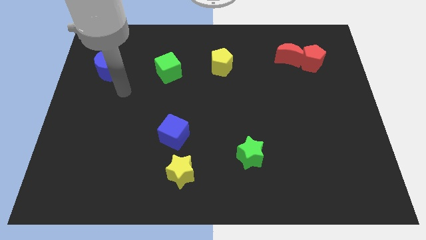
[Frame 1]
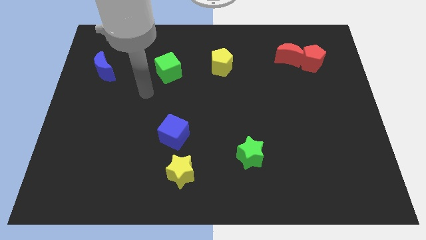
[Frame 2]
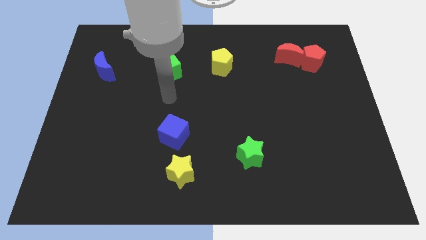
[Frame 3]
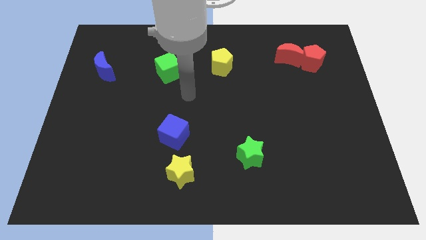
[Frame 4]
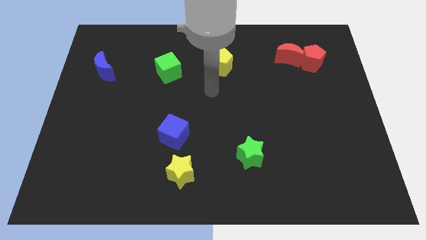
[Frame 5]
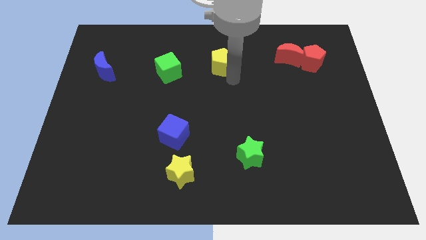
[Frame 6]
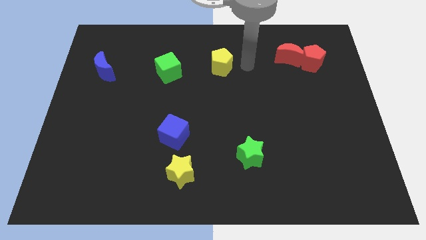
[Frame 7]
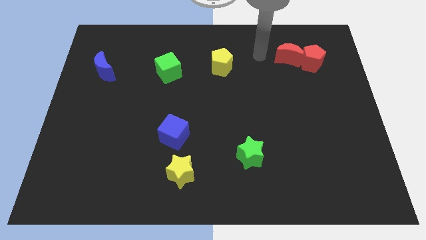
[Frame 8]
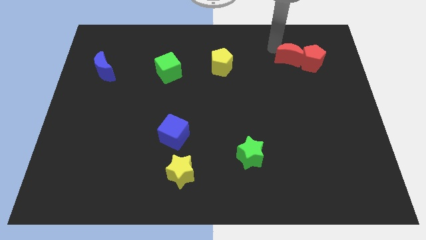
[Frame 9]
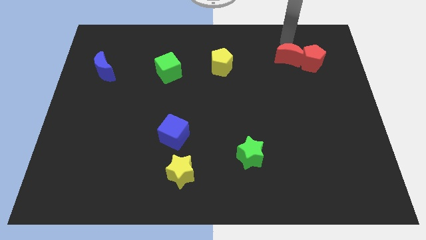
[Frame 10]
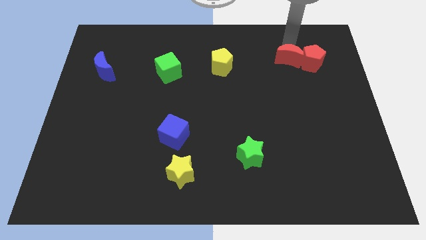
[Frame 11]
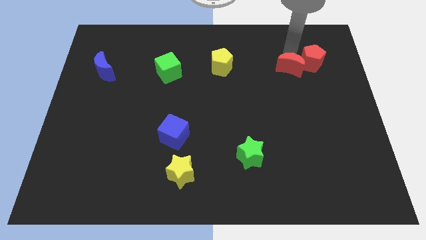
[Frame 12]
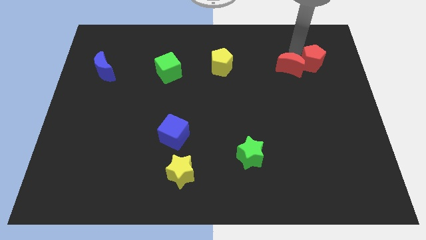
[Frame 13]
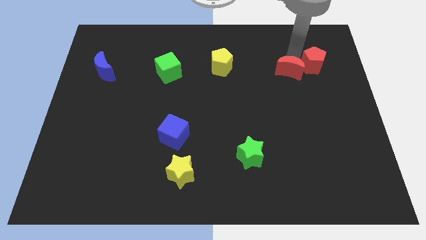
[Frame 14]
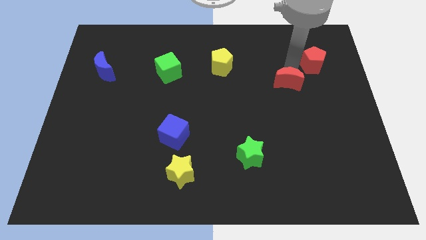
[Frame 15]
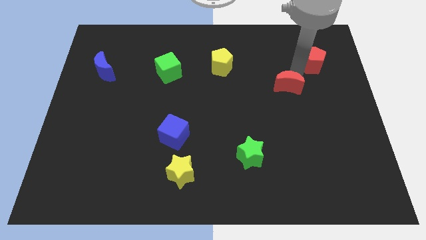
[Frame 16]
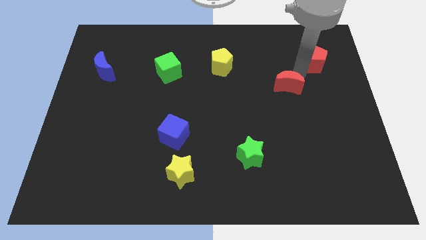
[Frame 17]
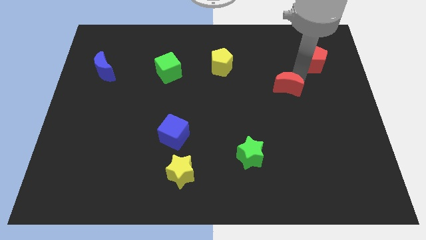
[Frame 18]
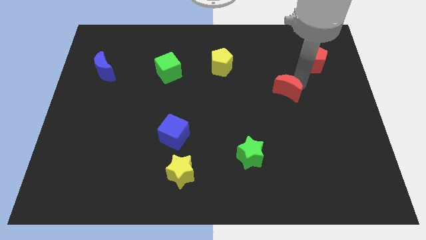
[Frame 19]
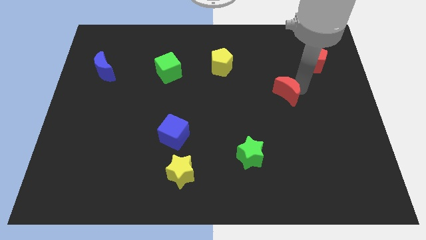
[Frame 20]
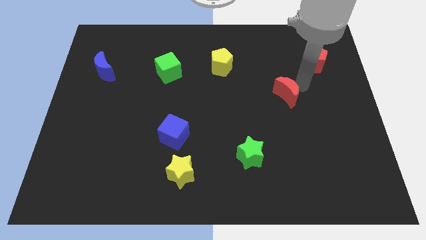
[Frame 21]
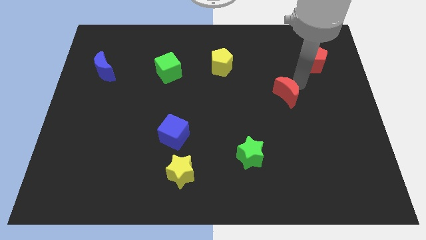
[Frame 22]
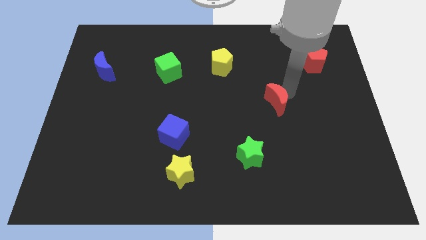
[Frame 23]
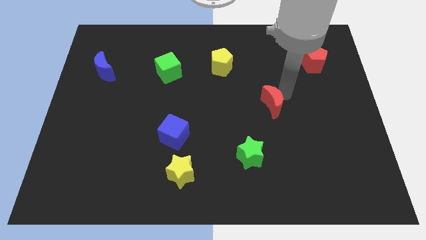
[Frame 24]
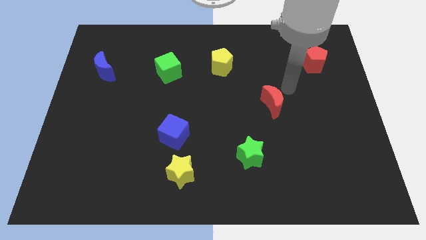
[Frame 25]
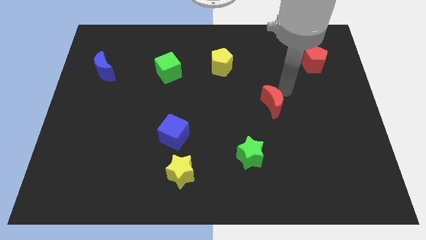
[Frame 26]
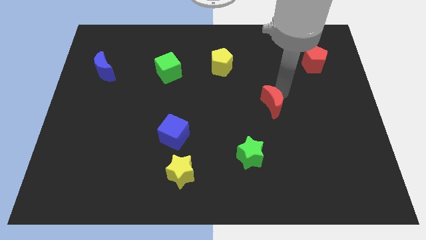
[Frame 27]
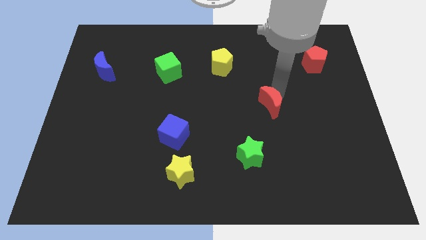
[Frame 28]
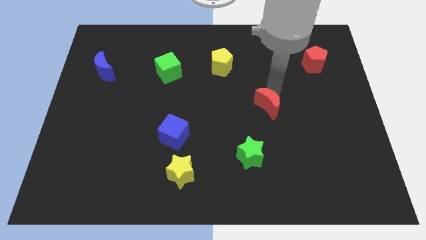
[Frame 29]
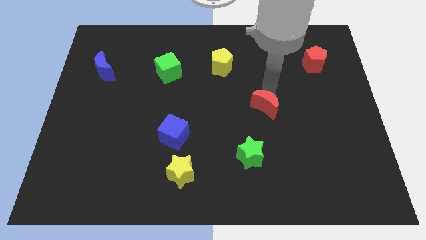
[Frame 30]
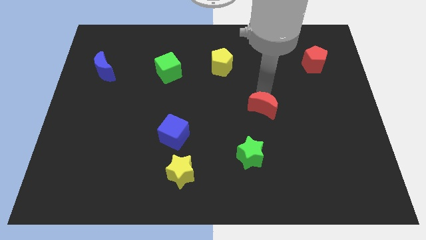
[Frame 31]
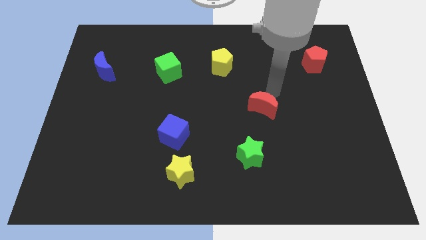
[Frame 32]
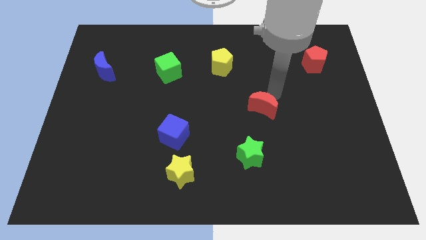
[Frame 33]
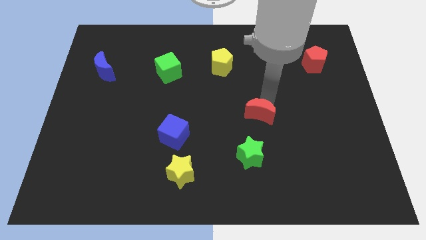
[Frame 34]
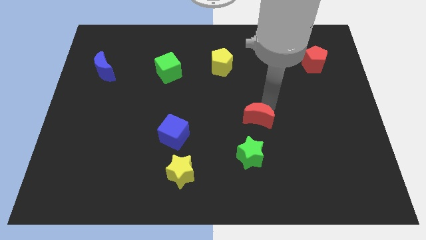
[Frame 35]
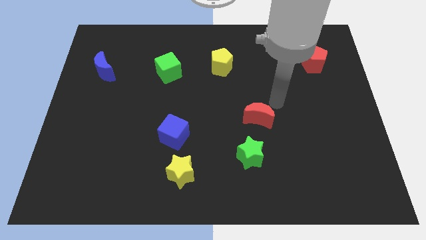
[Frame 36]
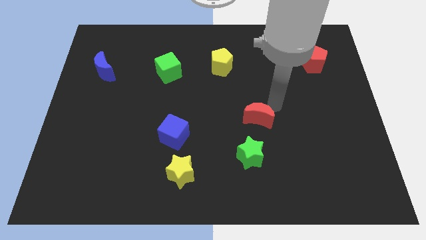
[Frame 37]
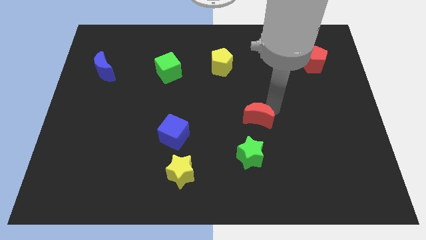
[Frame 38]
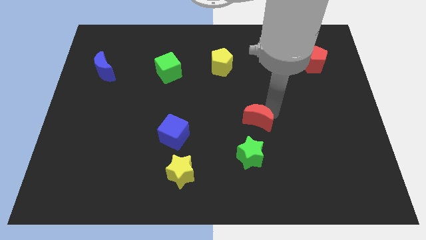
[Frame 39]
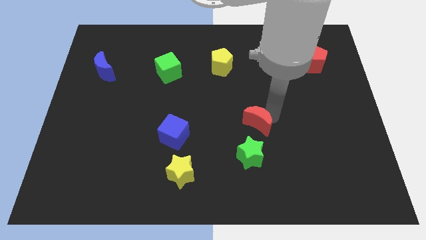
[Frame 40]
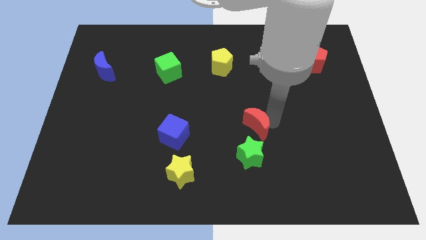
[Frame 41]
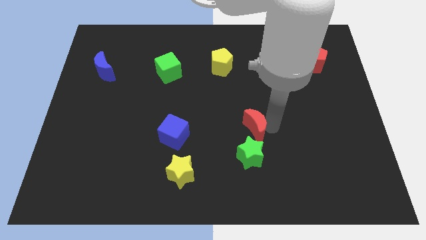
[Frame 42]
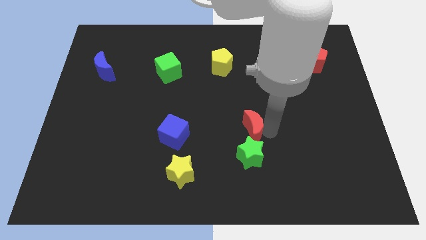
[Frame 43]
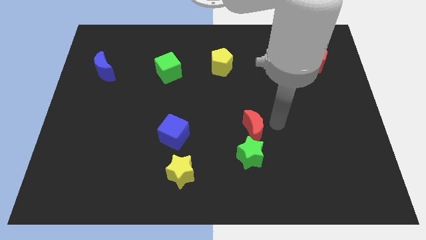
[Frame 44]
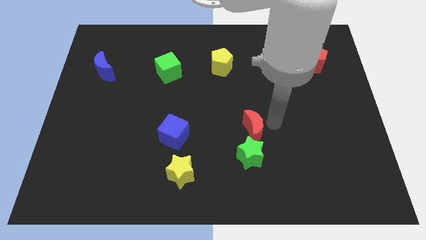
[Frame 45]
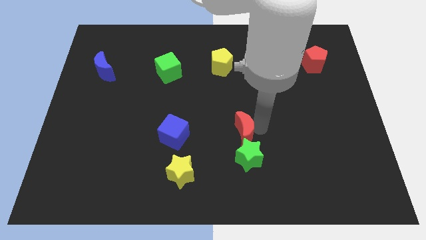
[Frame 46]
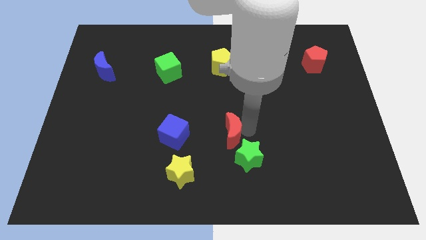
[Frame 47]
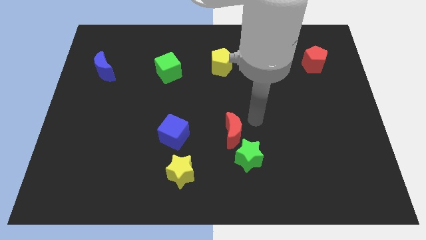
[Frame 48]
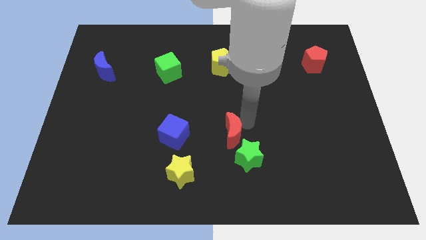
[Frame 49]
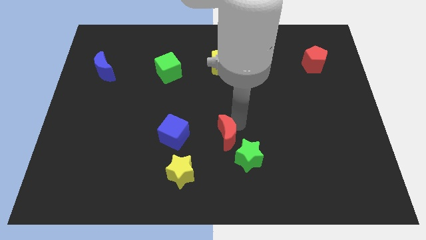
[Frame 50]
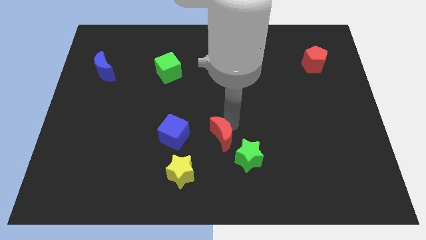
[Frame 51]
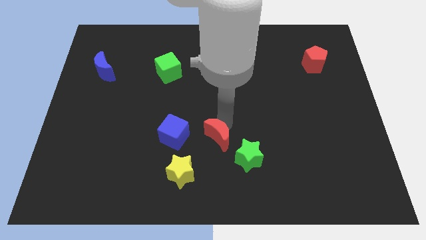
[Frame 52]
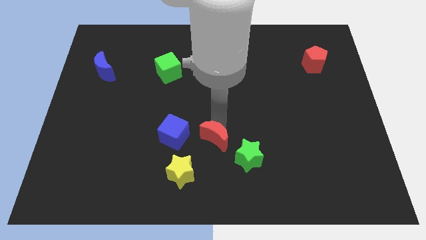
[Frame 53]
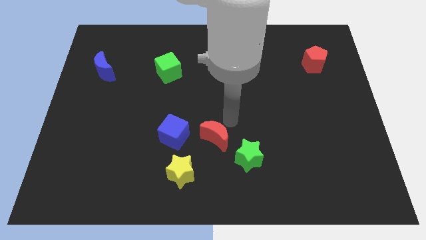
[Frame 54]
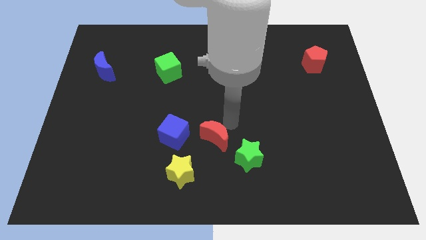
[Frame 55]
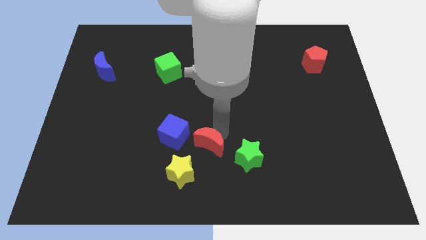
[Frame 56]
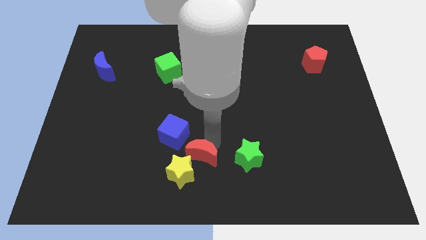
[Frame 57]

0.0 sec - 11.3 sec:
put the red moon to the yellow star

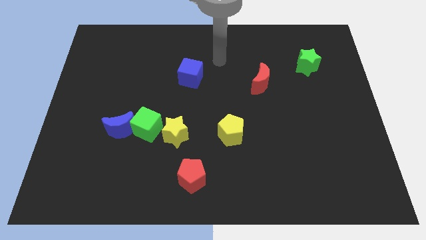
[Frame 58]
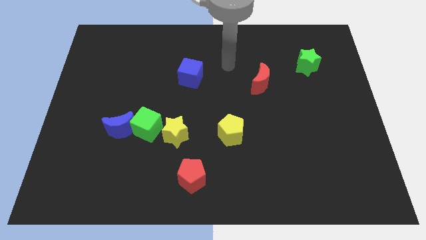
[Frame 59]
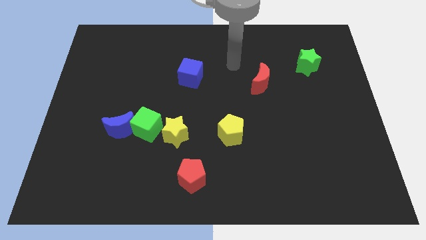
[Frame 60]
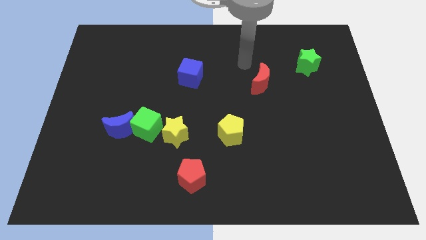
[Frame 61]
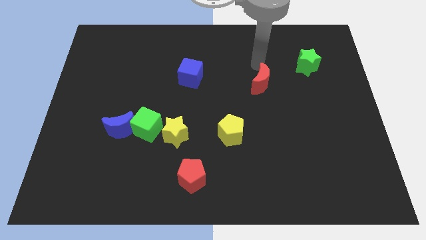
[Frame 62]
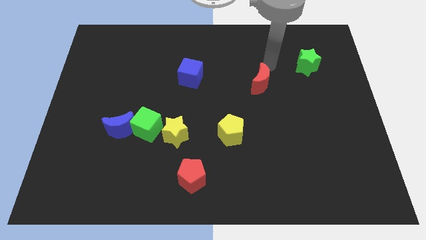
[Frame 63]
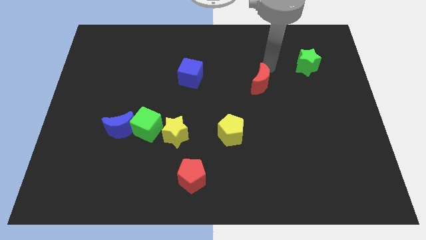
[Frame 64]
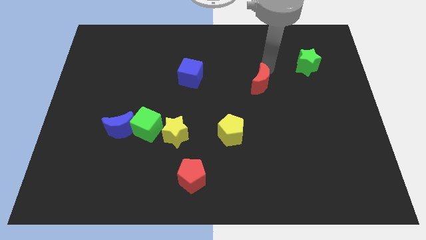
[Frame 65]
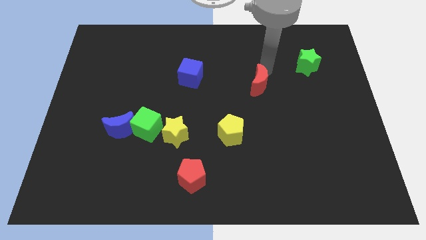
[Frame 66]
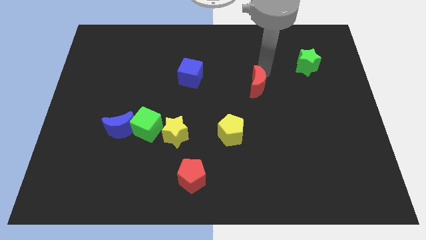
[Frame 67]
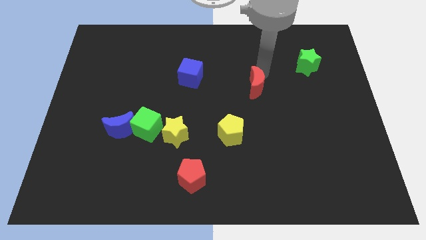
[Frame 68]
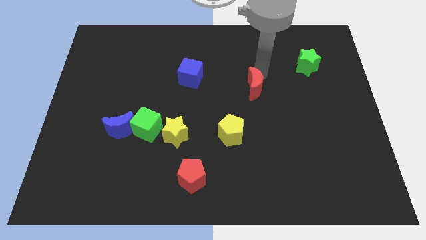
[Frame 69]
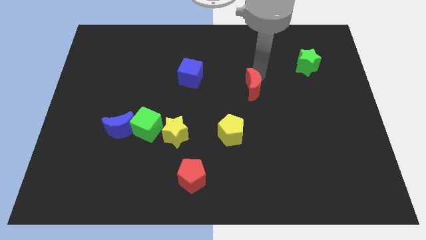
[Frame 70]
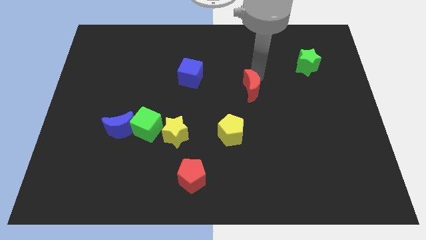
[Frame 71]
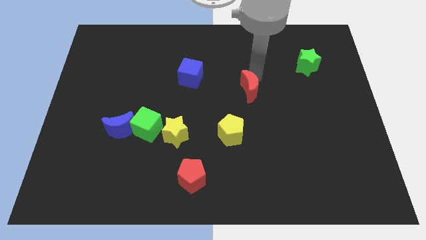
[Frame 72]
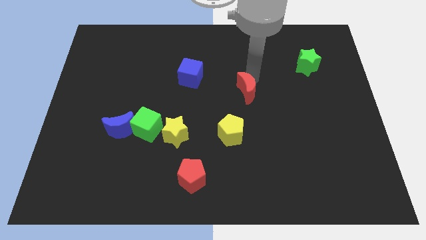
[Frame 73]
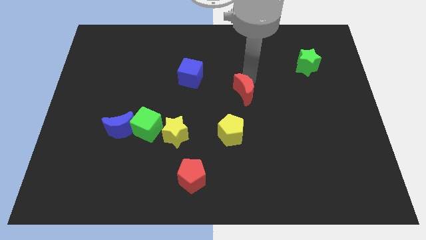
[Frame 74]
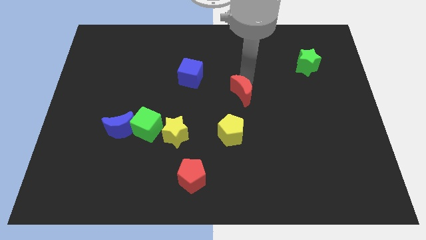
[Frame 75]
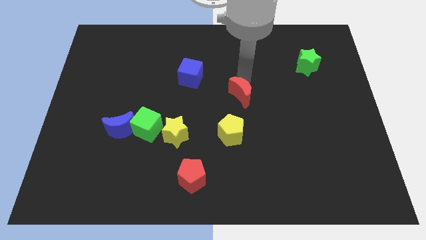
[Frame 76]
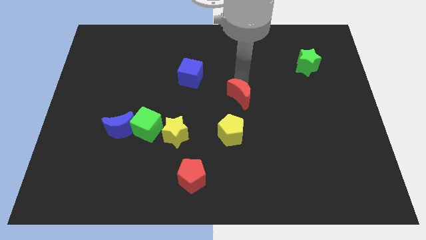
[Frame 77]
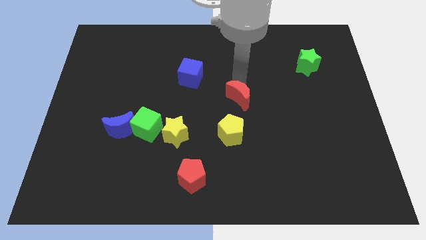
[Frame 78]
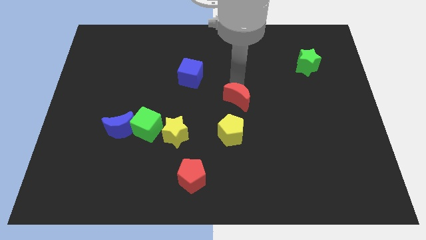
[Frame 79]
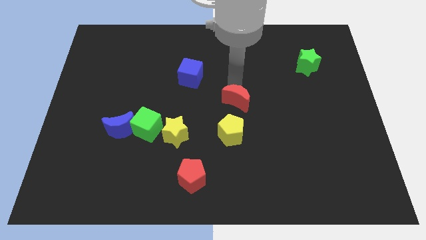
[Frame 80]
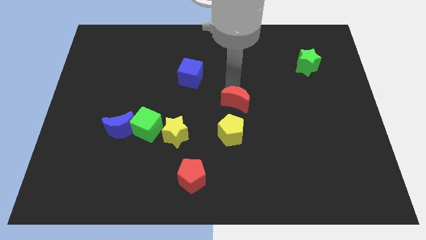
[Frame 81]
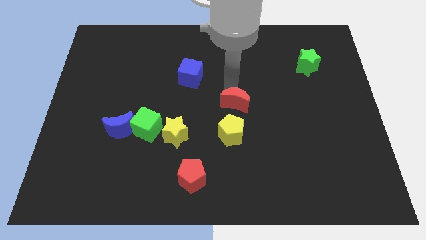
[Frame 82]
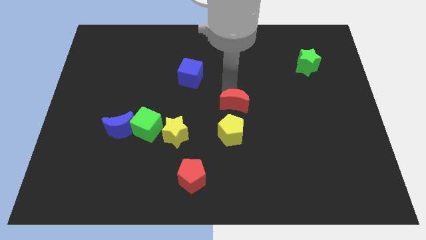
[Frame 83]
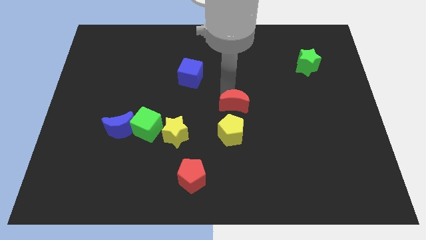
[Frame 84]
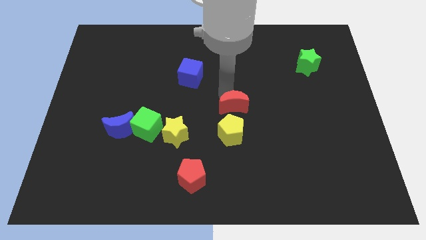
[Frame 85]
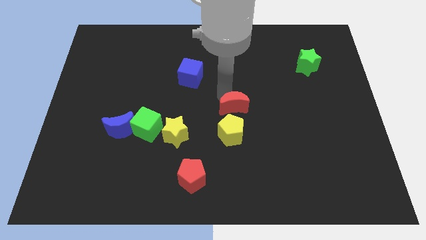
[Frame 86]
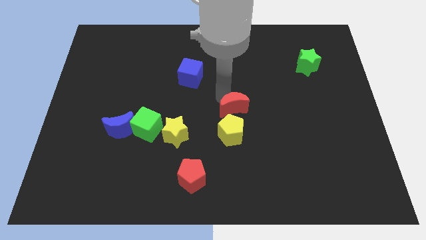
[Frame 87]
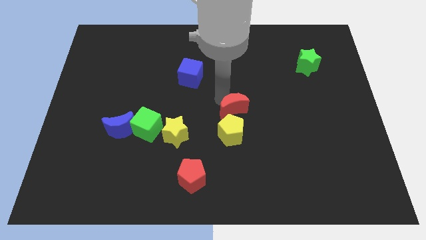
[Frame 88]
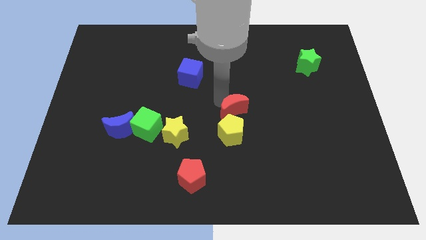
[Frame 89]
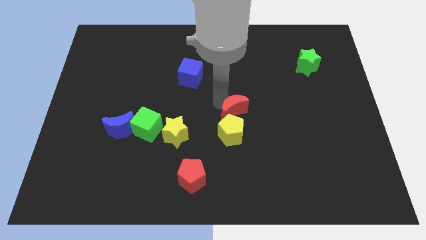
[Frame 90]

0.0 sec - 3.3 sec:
move the red moon close to the yellow pentagon
